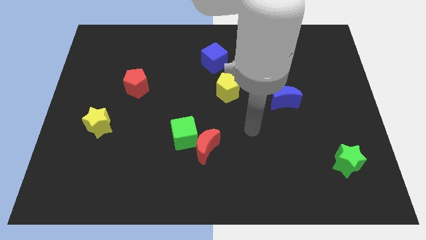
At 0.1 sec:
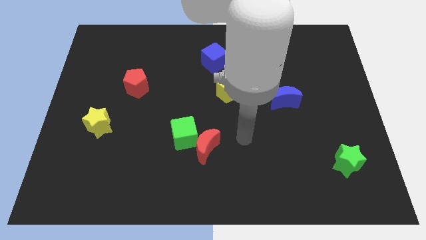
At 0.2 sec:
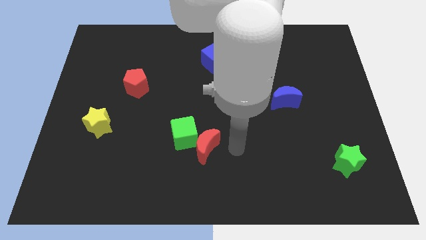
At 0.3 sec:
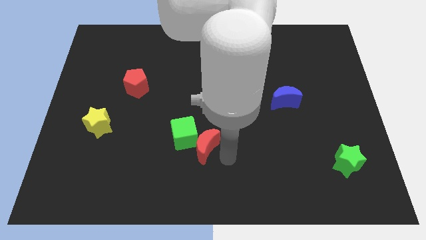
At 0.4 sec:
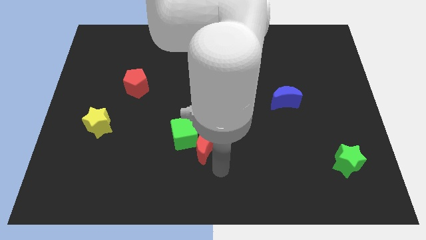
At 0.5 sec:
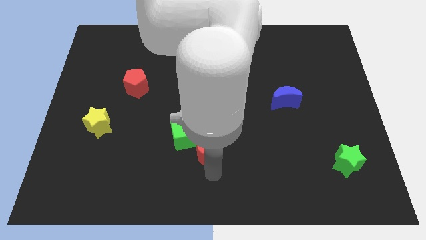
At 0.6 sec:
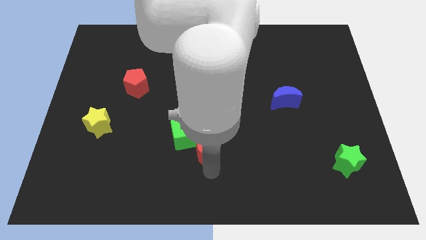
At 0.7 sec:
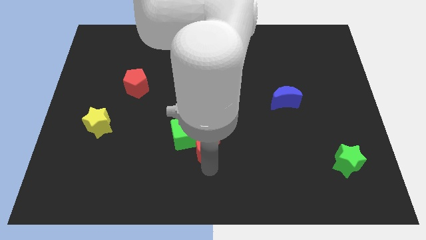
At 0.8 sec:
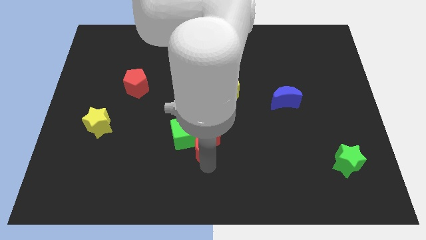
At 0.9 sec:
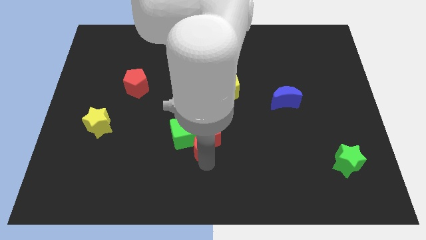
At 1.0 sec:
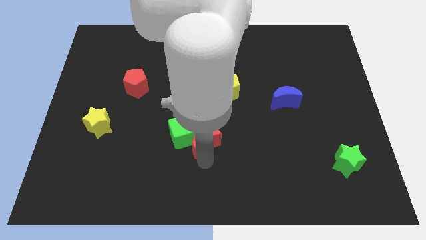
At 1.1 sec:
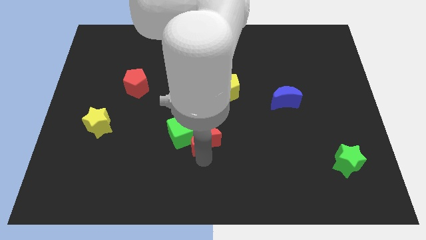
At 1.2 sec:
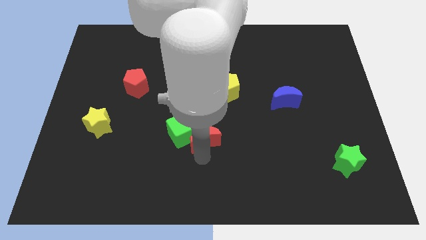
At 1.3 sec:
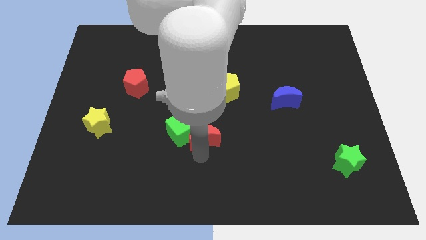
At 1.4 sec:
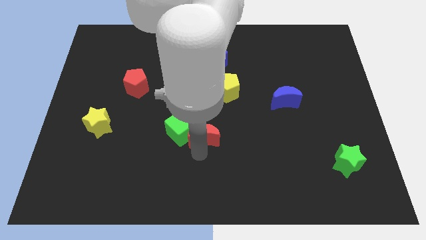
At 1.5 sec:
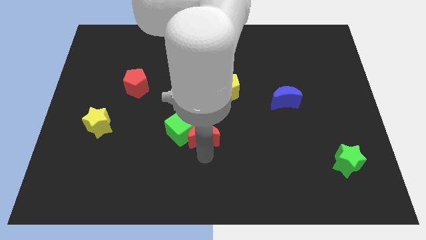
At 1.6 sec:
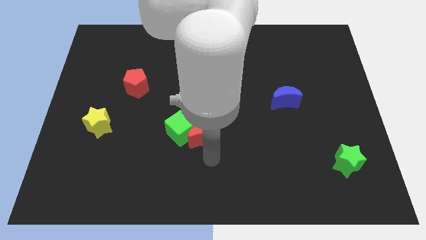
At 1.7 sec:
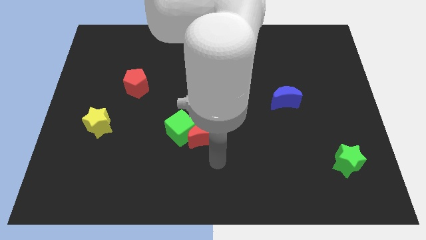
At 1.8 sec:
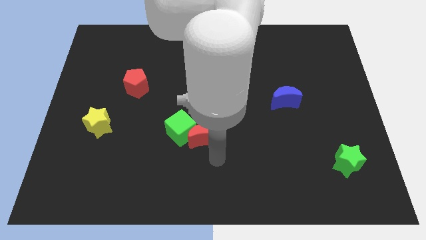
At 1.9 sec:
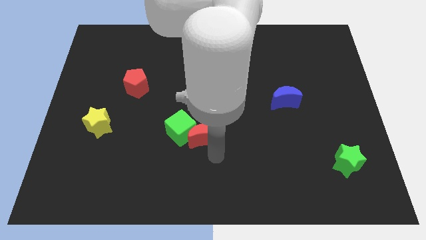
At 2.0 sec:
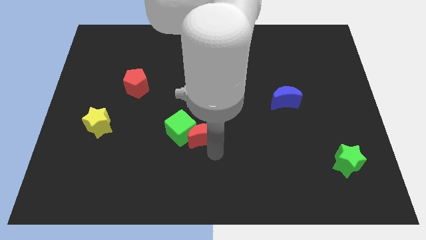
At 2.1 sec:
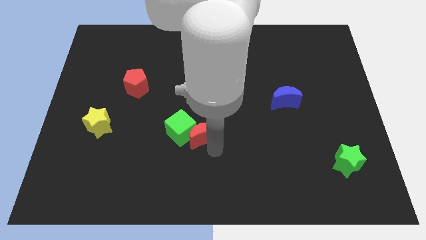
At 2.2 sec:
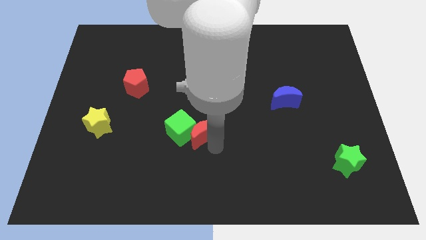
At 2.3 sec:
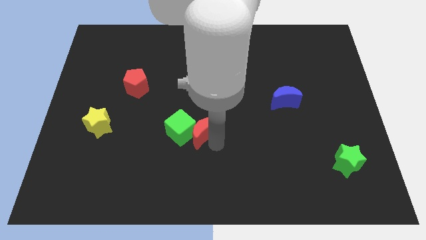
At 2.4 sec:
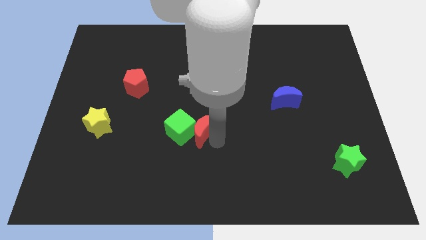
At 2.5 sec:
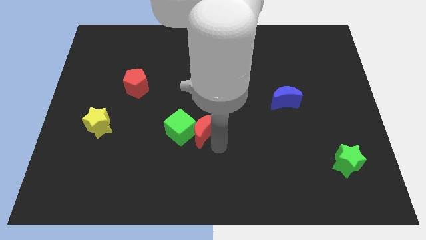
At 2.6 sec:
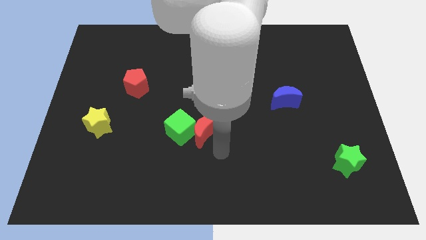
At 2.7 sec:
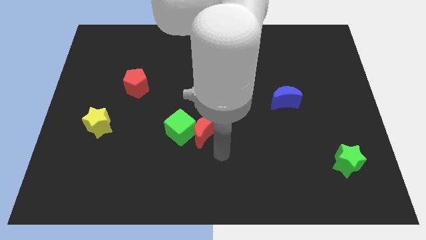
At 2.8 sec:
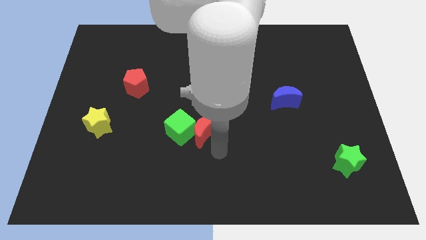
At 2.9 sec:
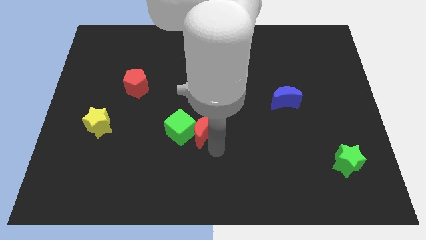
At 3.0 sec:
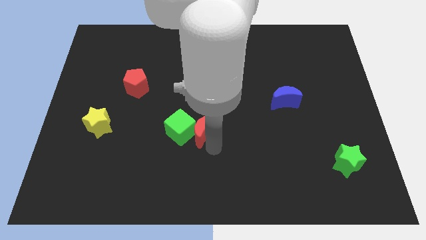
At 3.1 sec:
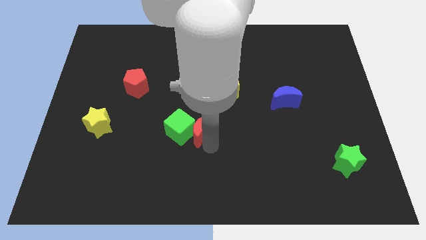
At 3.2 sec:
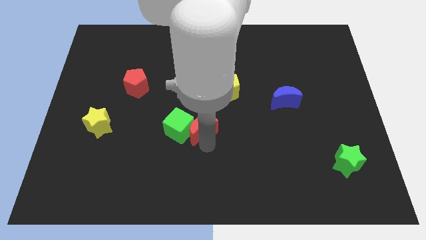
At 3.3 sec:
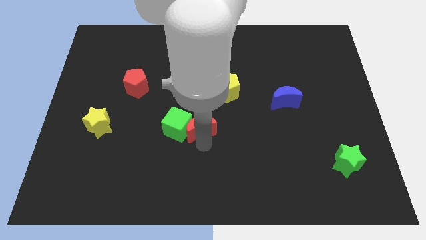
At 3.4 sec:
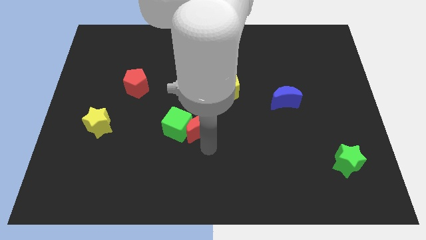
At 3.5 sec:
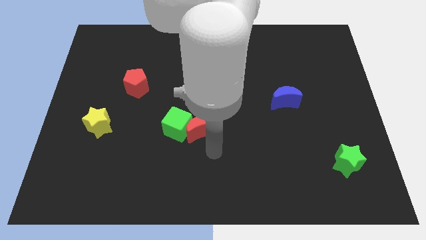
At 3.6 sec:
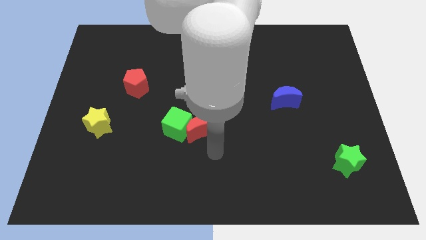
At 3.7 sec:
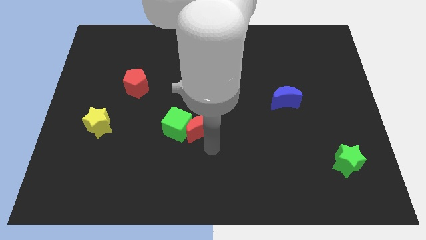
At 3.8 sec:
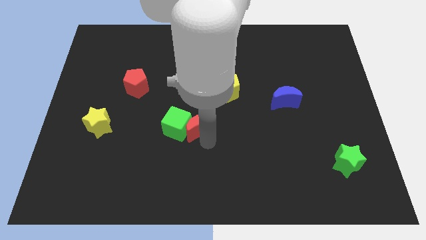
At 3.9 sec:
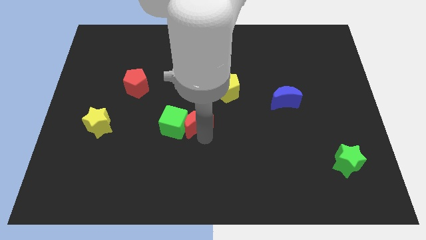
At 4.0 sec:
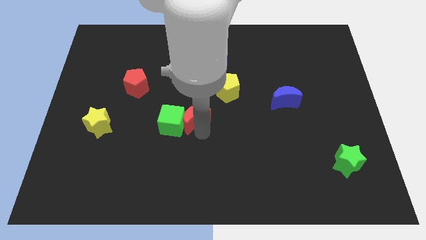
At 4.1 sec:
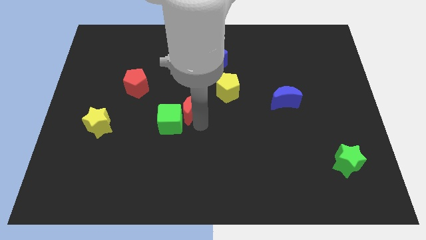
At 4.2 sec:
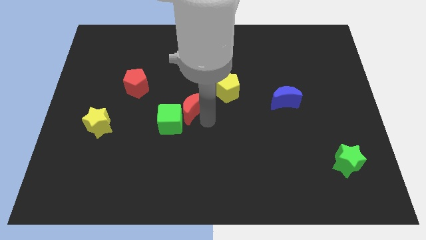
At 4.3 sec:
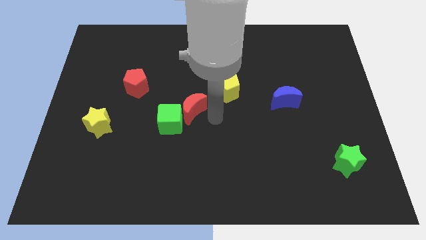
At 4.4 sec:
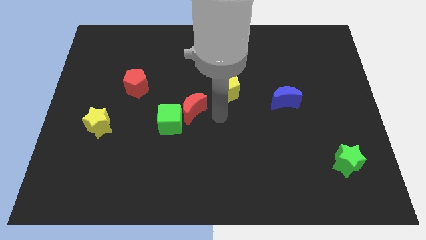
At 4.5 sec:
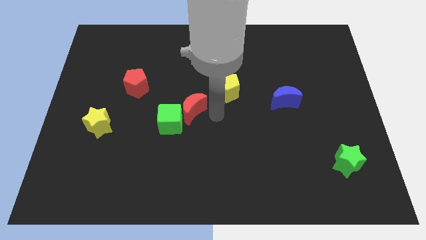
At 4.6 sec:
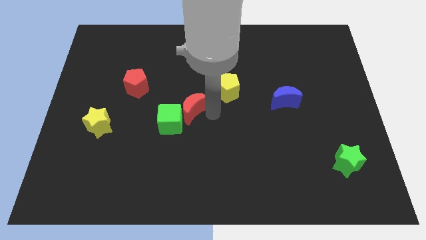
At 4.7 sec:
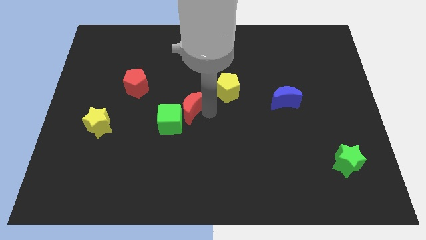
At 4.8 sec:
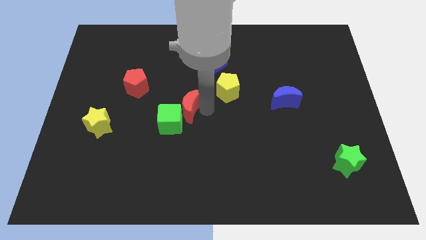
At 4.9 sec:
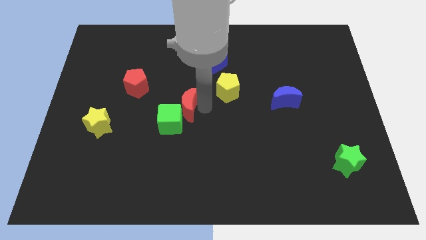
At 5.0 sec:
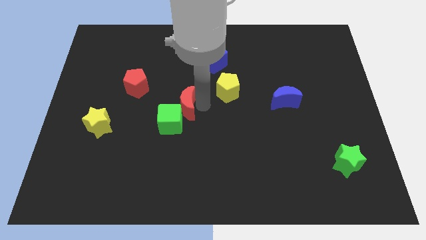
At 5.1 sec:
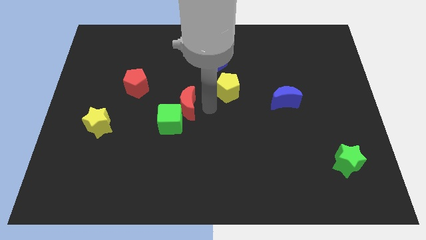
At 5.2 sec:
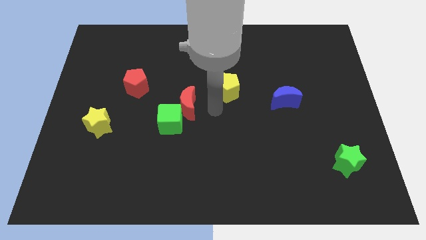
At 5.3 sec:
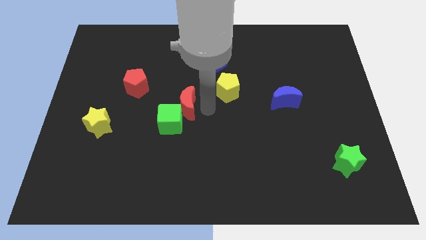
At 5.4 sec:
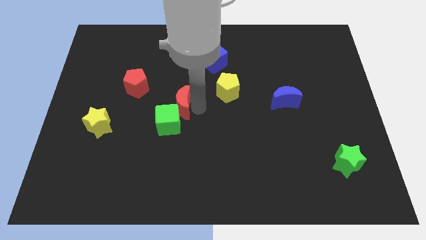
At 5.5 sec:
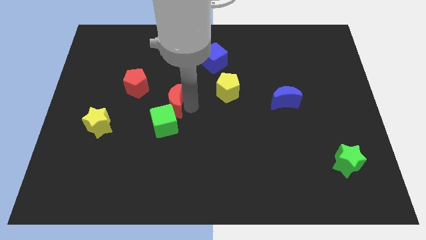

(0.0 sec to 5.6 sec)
push the red moon diagonally down and to the right of the red pentagon

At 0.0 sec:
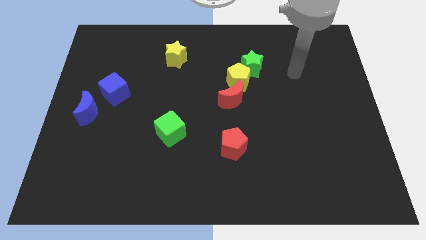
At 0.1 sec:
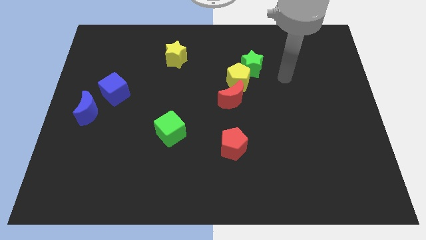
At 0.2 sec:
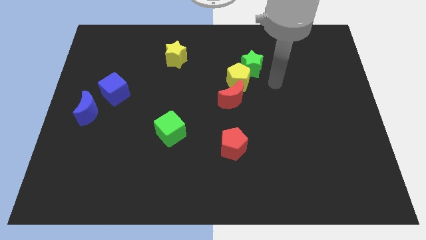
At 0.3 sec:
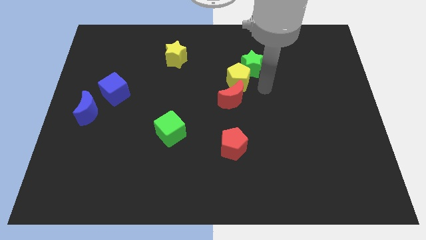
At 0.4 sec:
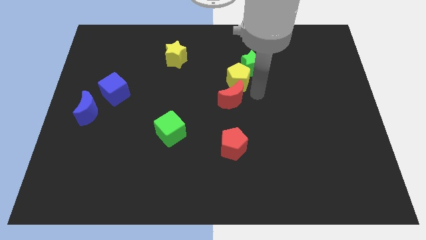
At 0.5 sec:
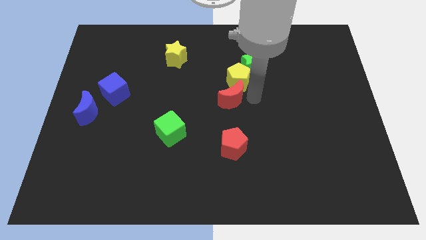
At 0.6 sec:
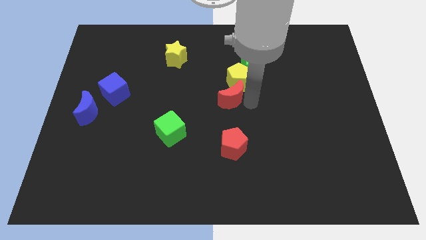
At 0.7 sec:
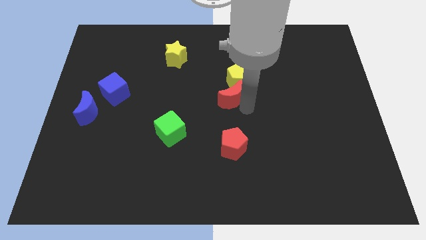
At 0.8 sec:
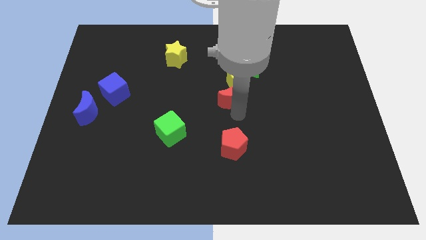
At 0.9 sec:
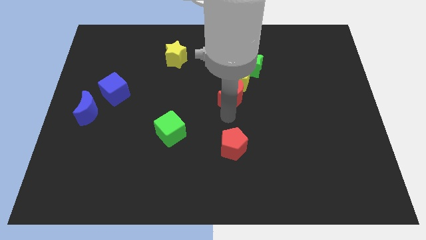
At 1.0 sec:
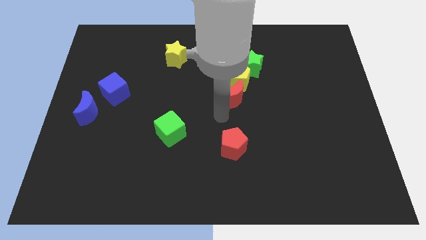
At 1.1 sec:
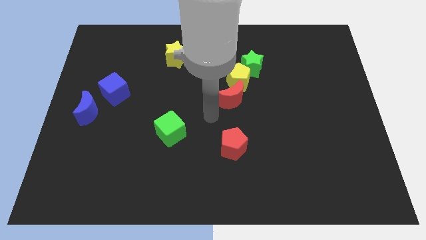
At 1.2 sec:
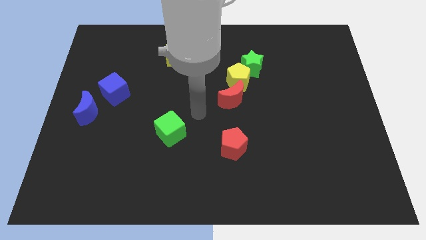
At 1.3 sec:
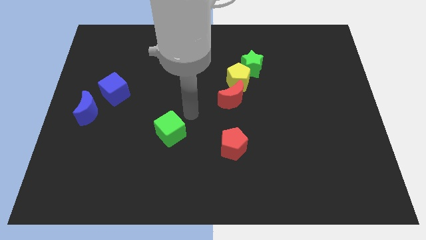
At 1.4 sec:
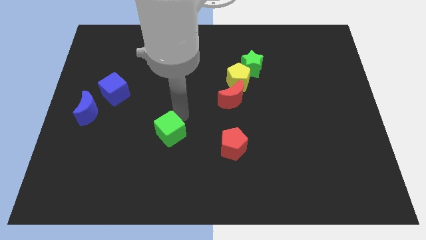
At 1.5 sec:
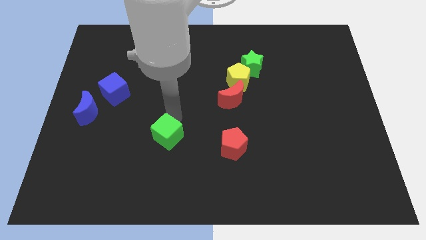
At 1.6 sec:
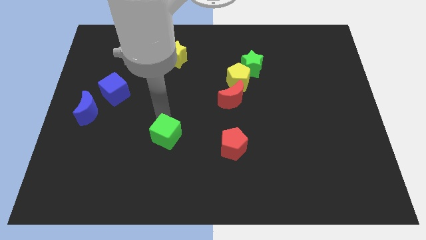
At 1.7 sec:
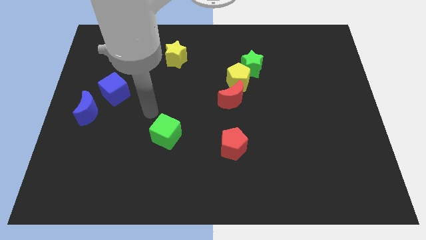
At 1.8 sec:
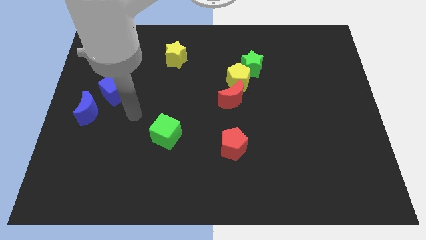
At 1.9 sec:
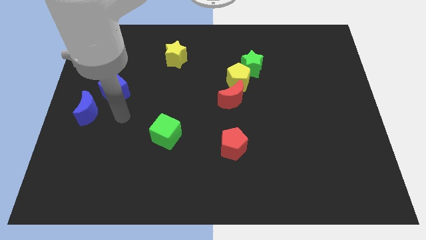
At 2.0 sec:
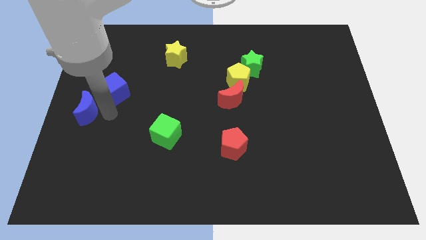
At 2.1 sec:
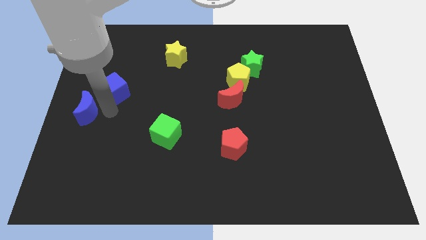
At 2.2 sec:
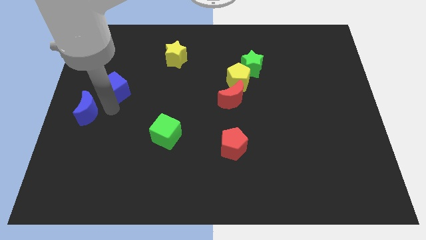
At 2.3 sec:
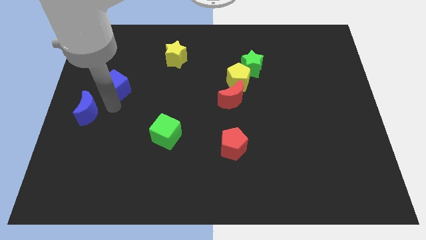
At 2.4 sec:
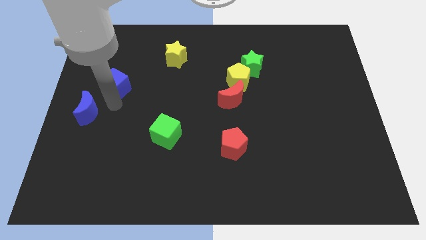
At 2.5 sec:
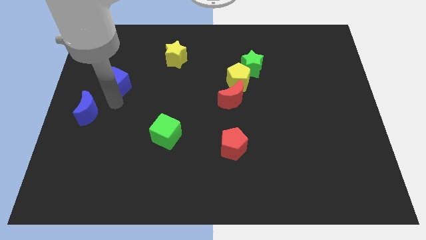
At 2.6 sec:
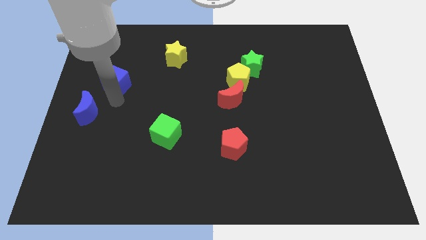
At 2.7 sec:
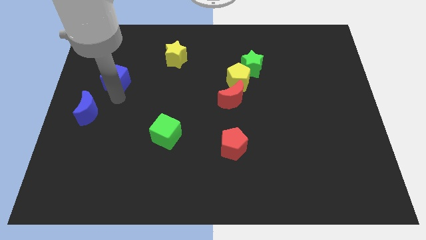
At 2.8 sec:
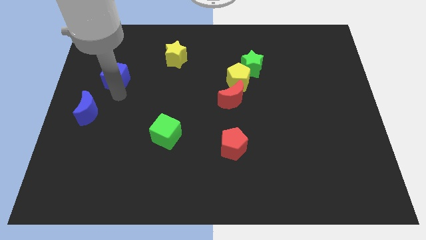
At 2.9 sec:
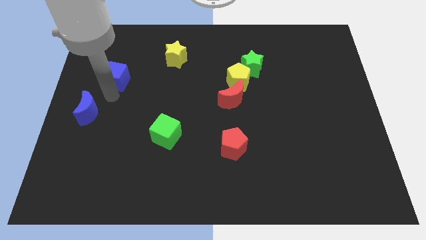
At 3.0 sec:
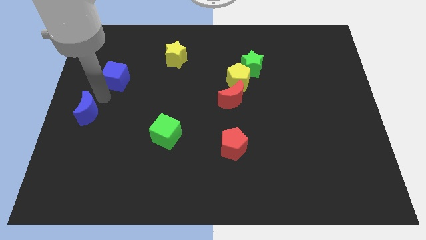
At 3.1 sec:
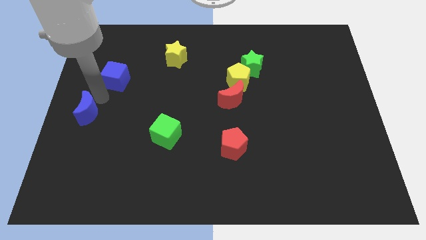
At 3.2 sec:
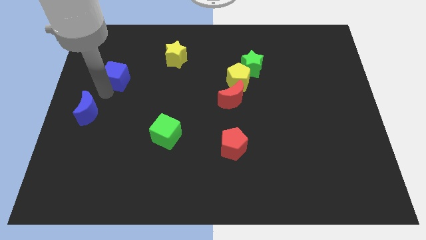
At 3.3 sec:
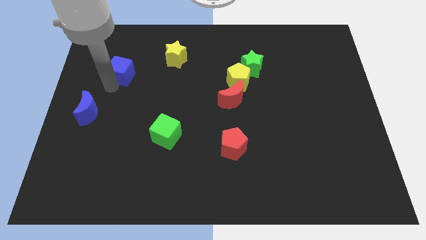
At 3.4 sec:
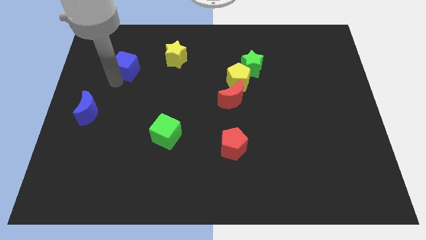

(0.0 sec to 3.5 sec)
put the blue cube just left of the yellow star
